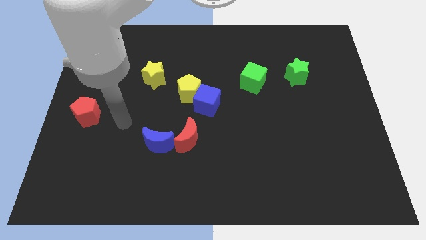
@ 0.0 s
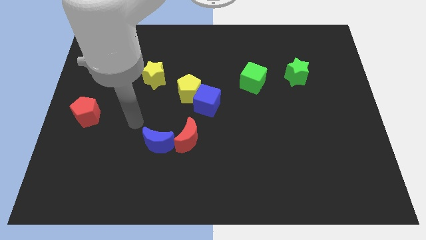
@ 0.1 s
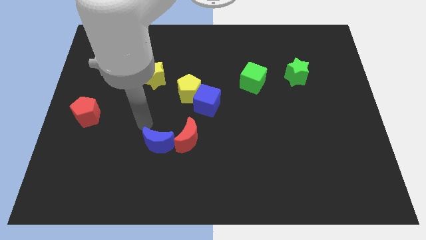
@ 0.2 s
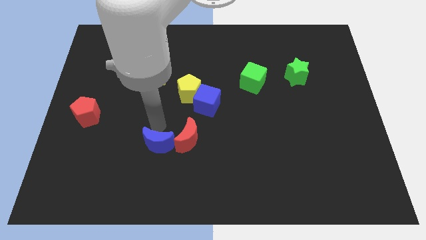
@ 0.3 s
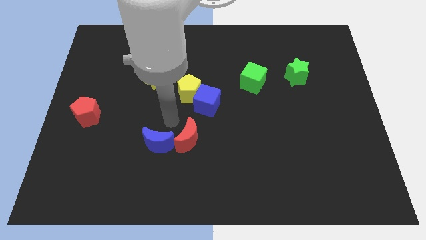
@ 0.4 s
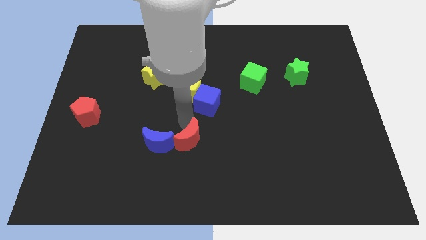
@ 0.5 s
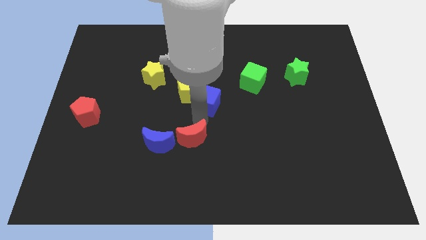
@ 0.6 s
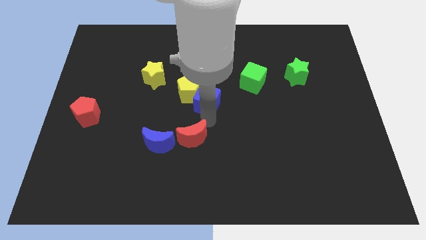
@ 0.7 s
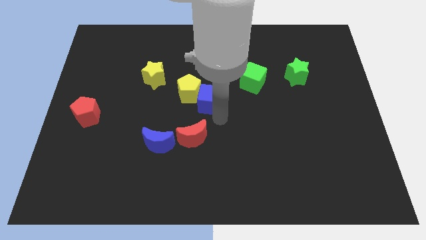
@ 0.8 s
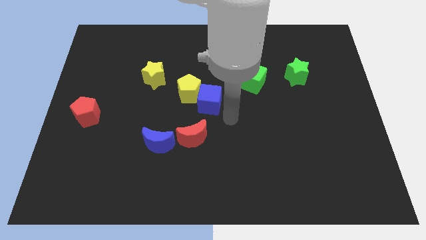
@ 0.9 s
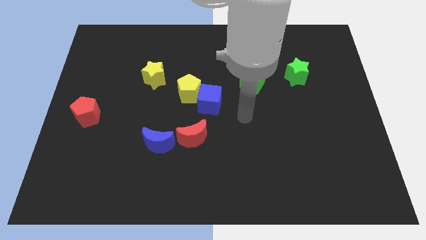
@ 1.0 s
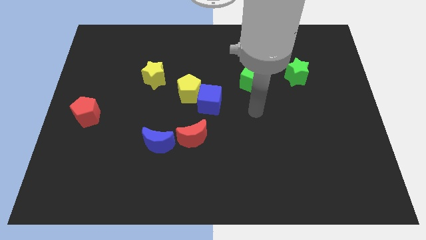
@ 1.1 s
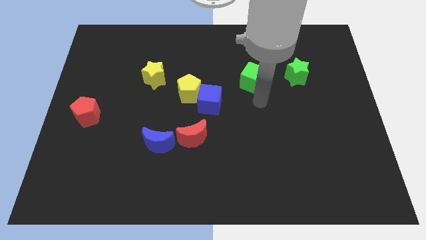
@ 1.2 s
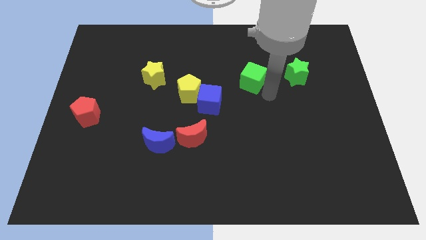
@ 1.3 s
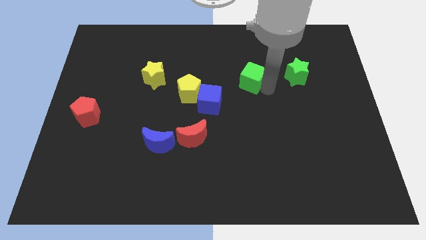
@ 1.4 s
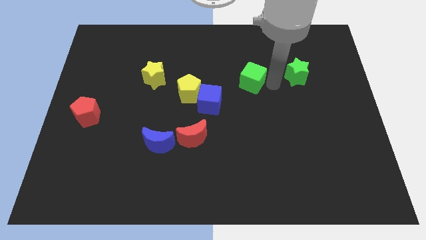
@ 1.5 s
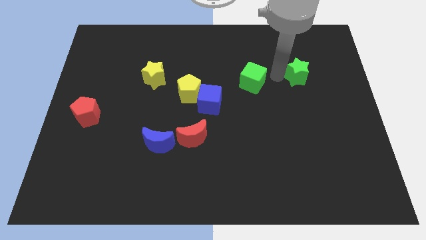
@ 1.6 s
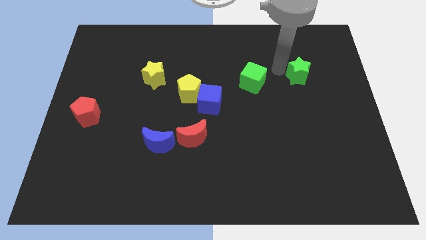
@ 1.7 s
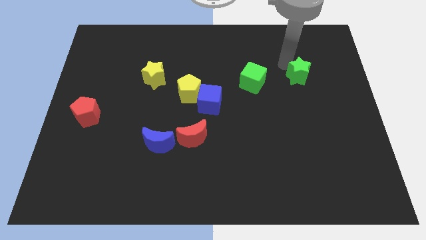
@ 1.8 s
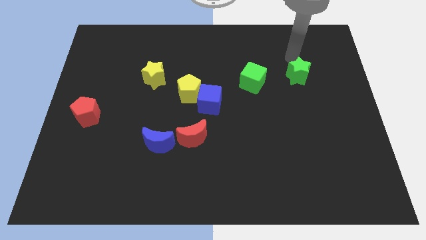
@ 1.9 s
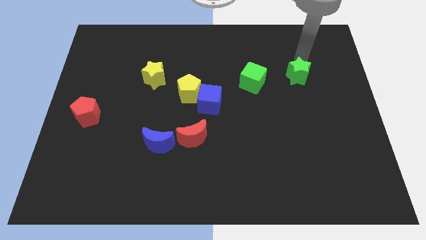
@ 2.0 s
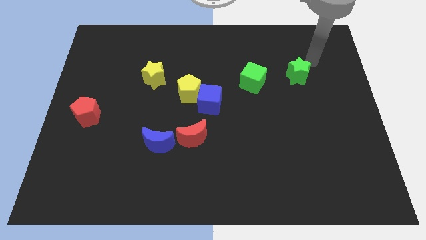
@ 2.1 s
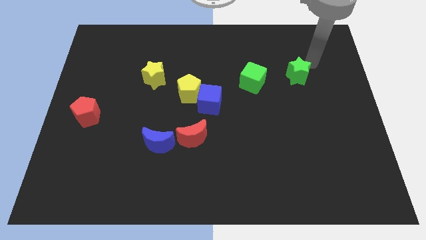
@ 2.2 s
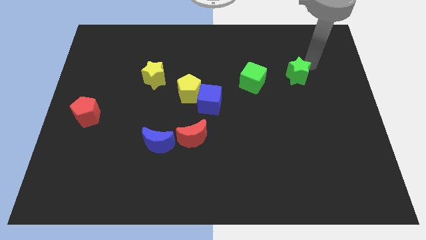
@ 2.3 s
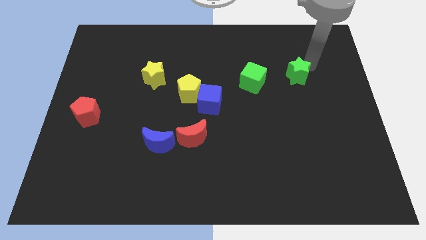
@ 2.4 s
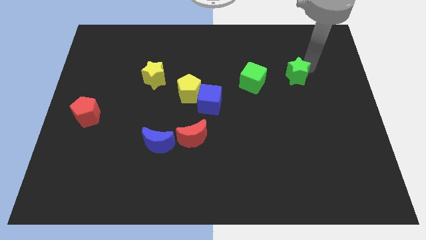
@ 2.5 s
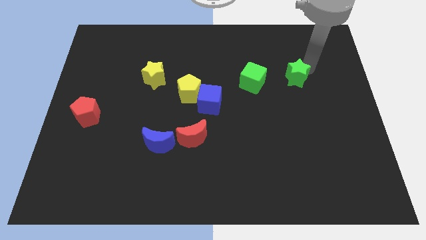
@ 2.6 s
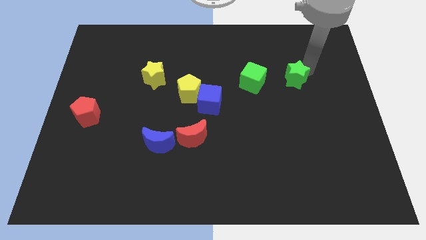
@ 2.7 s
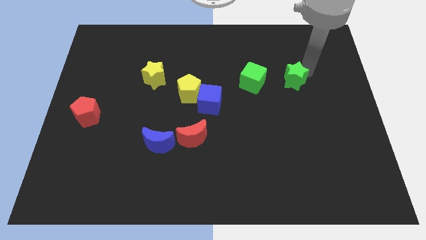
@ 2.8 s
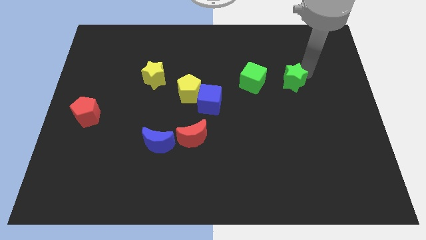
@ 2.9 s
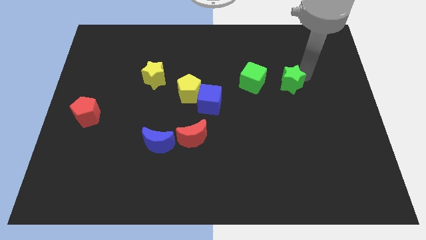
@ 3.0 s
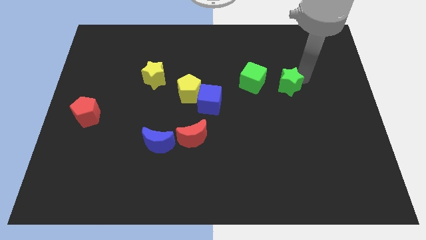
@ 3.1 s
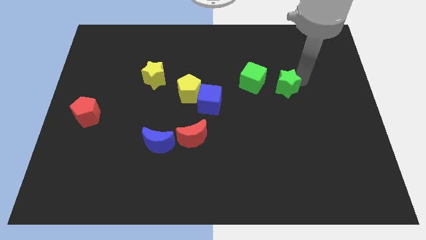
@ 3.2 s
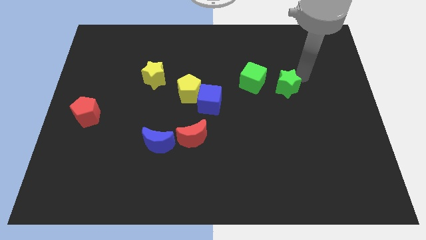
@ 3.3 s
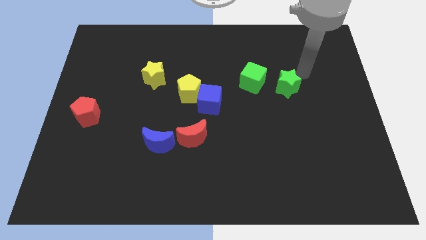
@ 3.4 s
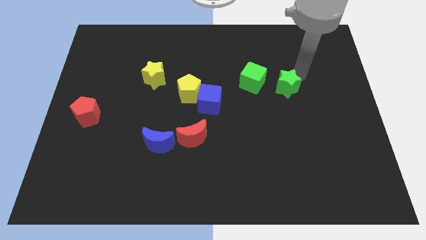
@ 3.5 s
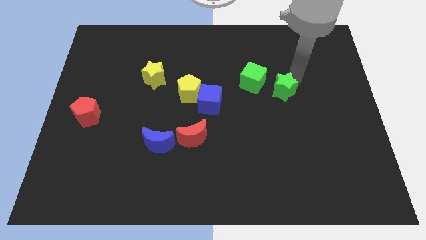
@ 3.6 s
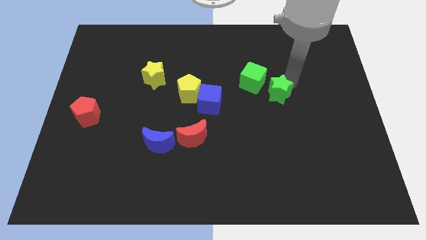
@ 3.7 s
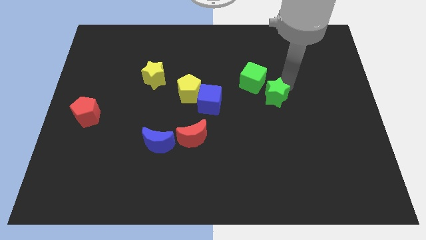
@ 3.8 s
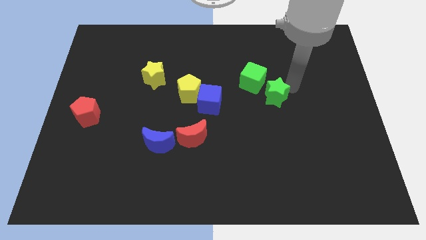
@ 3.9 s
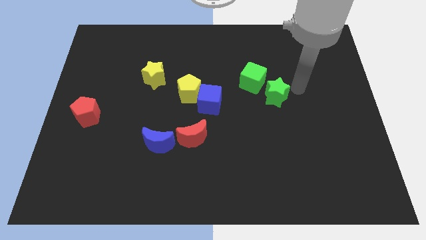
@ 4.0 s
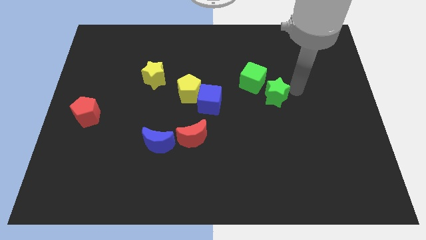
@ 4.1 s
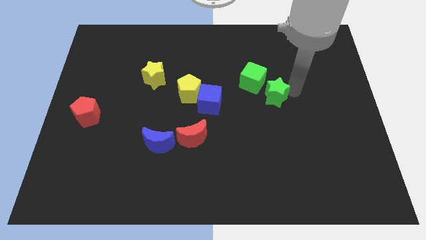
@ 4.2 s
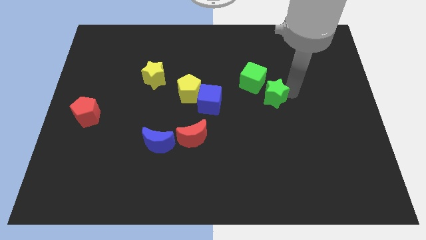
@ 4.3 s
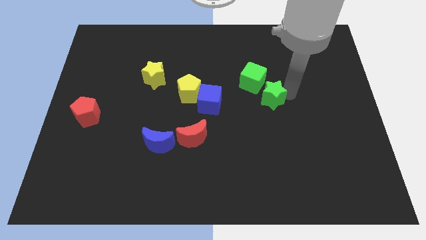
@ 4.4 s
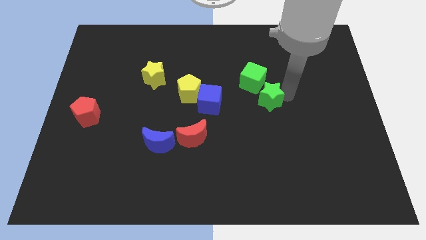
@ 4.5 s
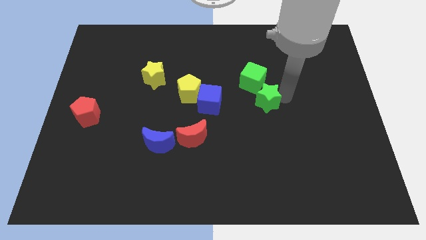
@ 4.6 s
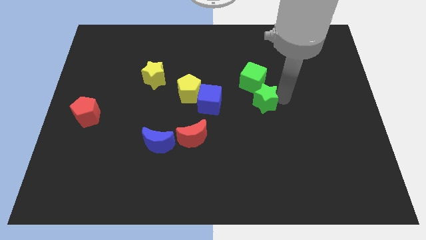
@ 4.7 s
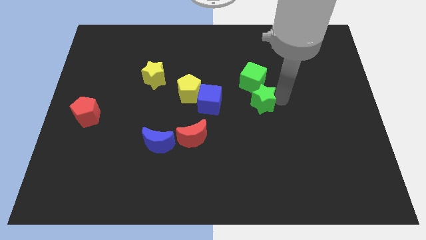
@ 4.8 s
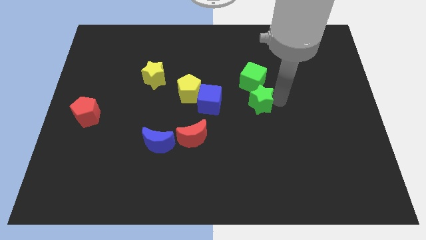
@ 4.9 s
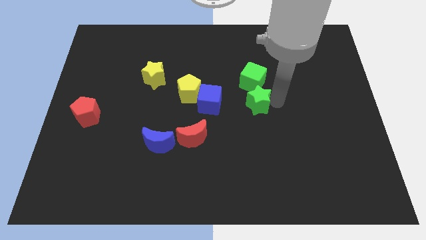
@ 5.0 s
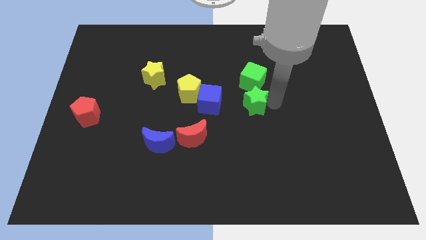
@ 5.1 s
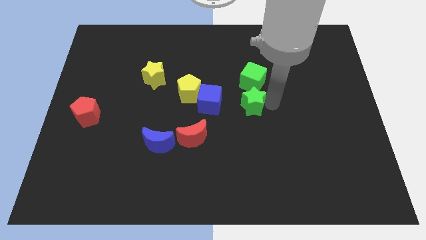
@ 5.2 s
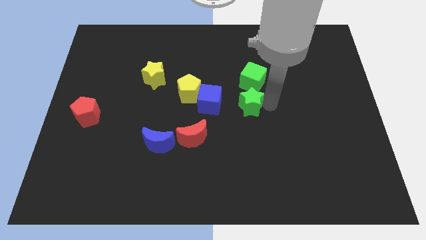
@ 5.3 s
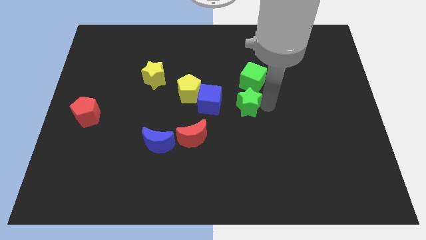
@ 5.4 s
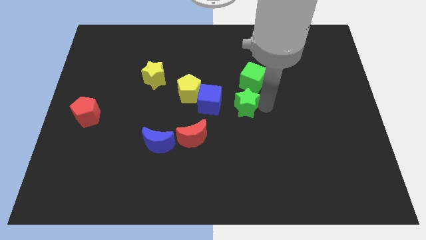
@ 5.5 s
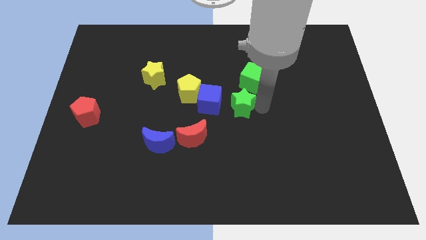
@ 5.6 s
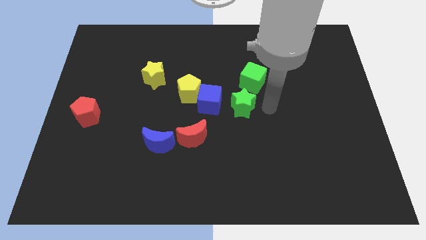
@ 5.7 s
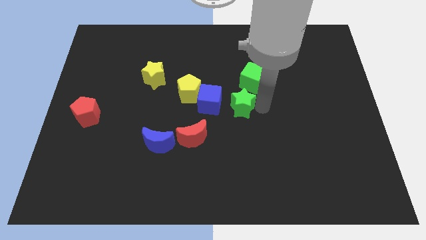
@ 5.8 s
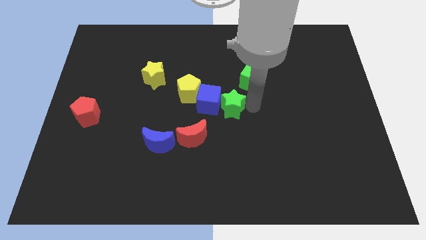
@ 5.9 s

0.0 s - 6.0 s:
move the green star next to the blue cube
